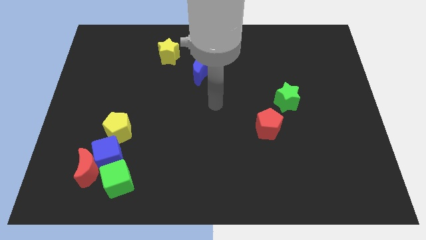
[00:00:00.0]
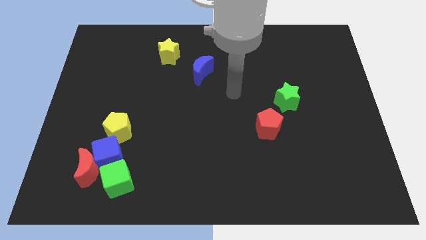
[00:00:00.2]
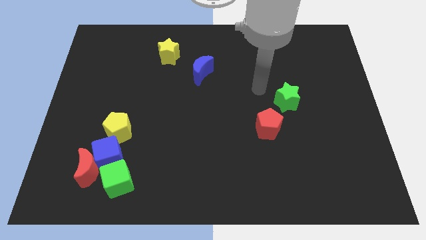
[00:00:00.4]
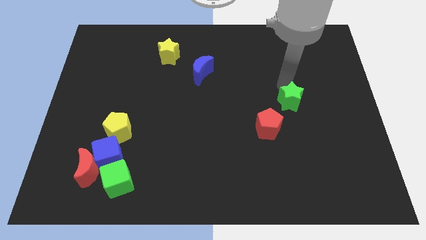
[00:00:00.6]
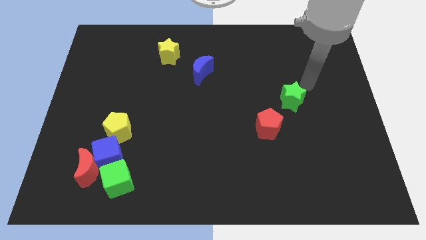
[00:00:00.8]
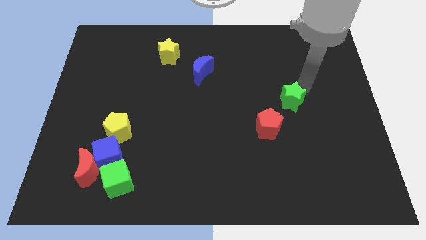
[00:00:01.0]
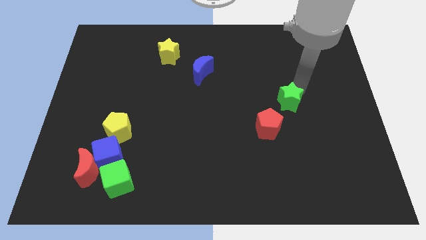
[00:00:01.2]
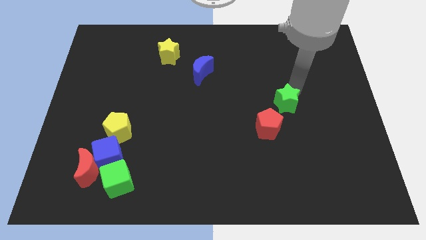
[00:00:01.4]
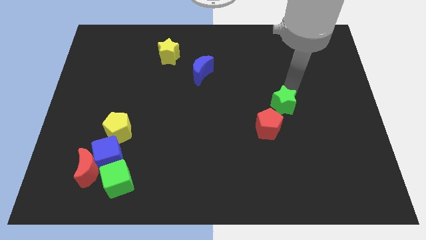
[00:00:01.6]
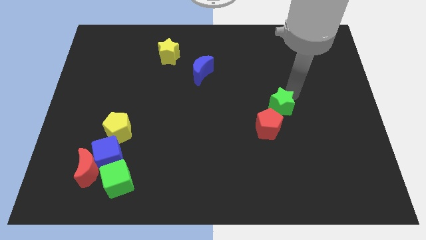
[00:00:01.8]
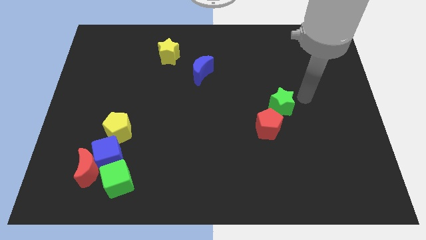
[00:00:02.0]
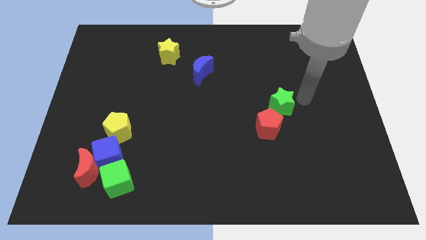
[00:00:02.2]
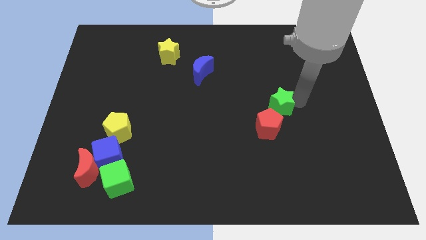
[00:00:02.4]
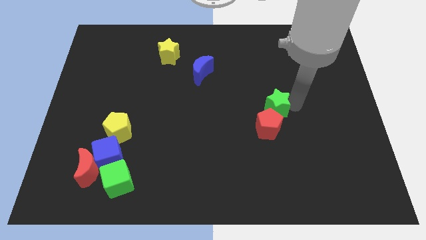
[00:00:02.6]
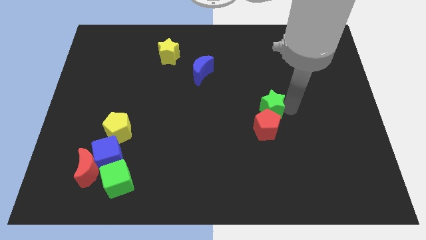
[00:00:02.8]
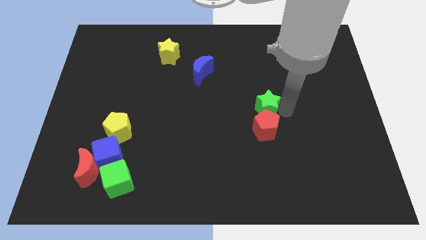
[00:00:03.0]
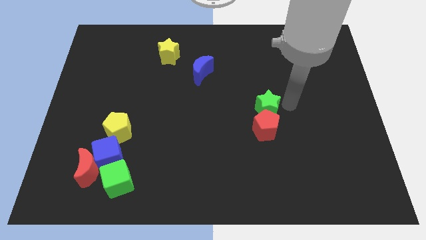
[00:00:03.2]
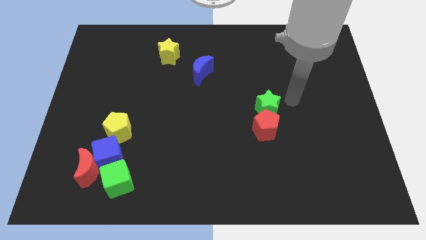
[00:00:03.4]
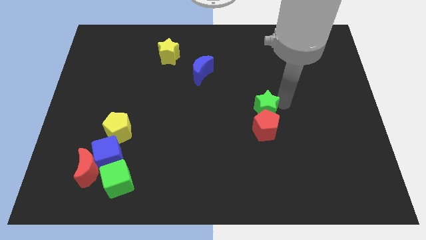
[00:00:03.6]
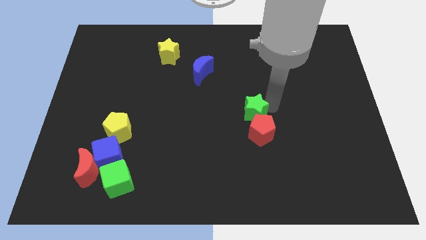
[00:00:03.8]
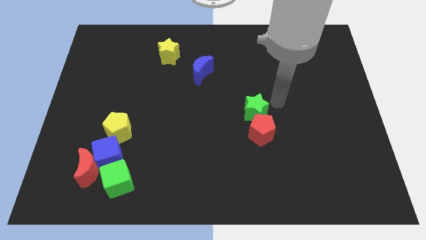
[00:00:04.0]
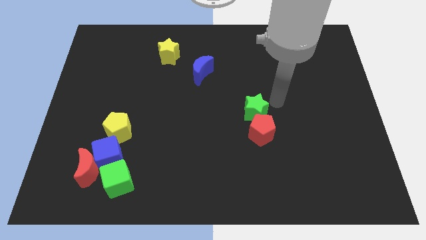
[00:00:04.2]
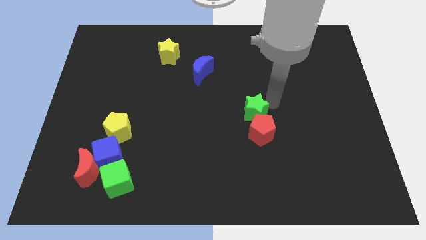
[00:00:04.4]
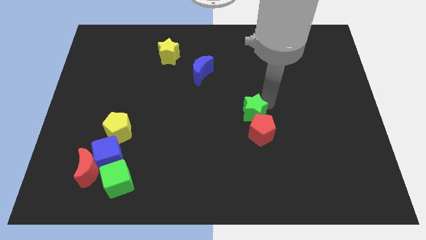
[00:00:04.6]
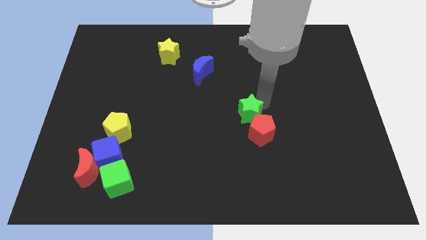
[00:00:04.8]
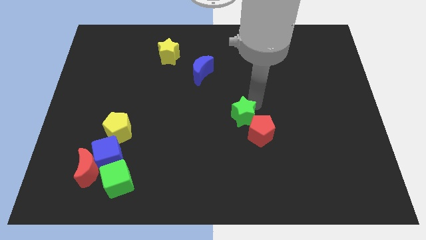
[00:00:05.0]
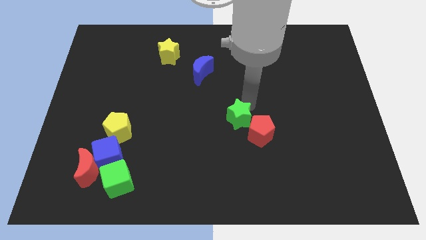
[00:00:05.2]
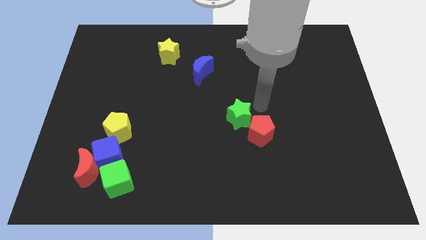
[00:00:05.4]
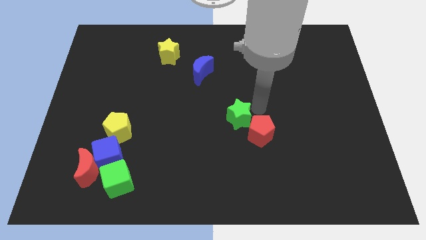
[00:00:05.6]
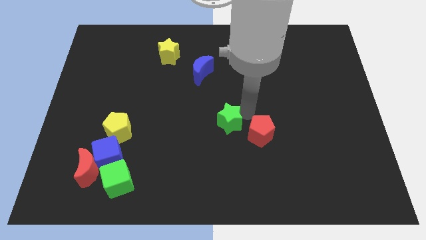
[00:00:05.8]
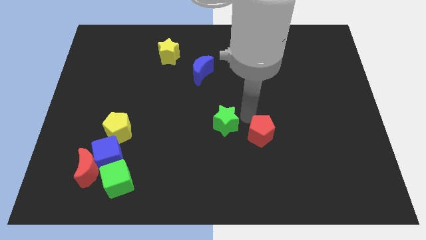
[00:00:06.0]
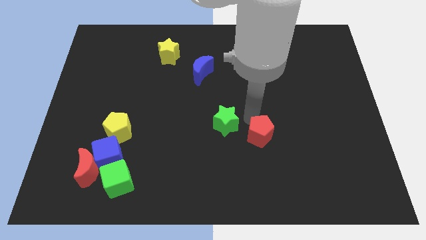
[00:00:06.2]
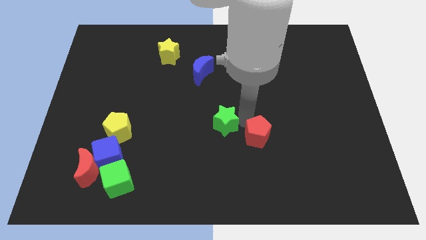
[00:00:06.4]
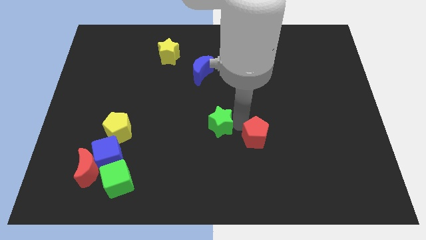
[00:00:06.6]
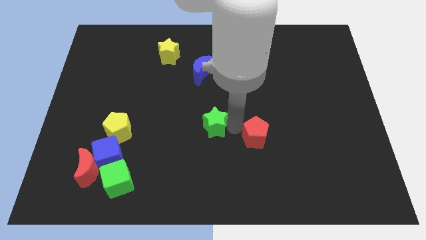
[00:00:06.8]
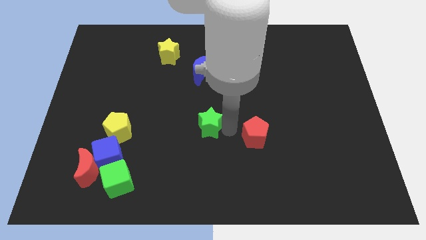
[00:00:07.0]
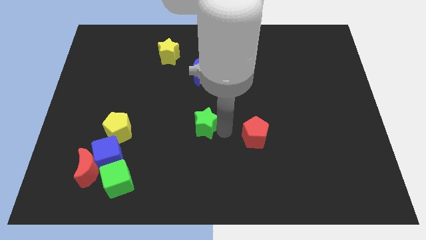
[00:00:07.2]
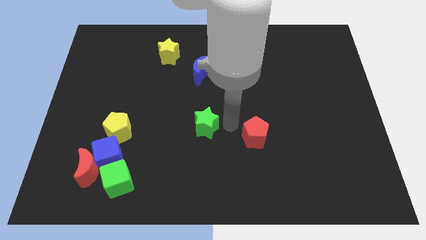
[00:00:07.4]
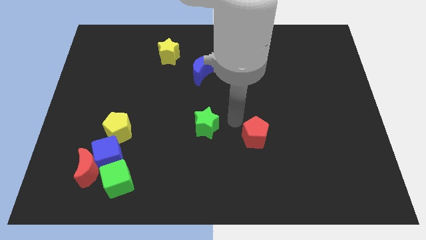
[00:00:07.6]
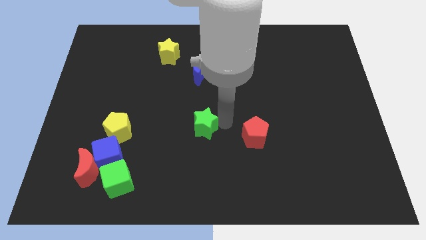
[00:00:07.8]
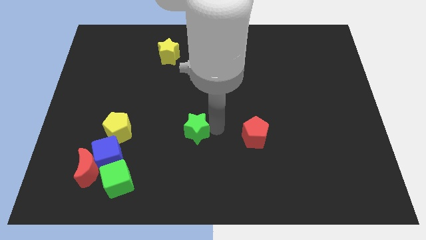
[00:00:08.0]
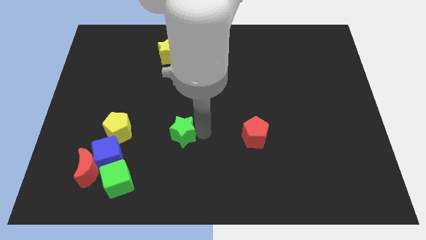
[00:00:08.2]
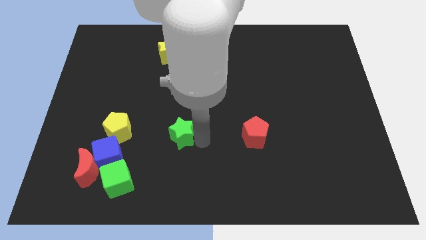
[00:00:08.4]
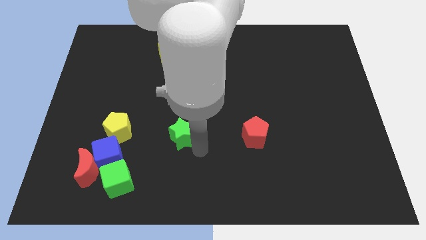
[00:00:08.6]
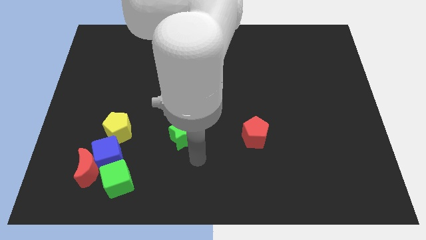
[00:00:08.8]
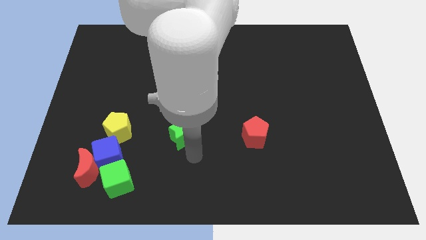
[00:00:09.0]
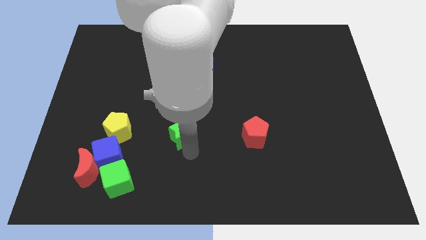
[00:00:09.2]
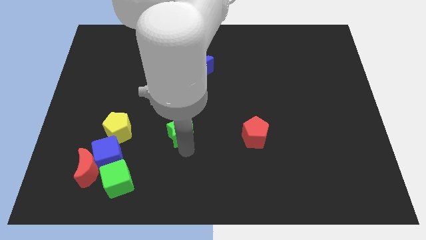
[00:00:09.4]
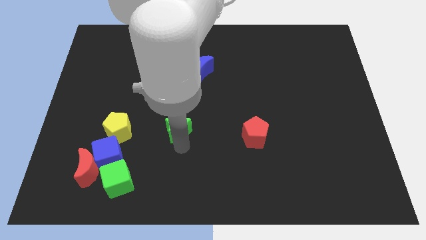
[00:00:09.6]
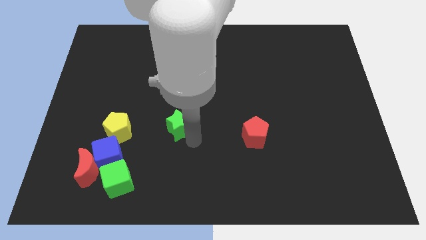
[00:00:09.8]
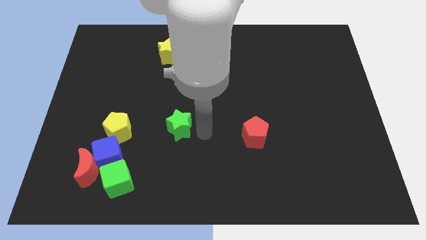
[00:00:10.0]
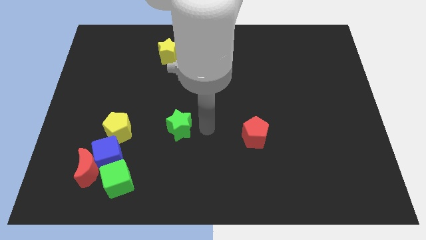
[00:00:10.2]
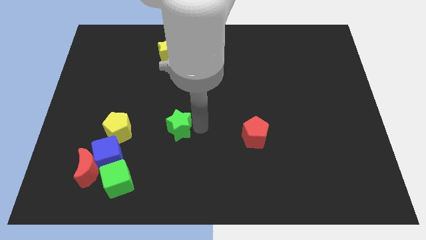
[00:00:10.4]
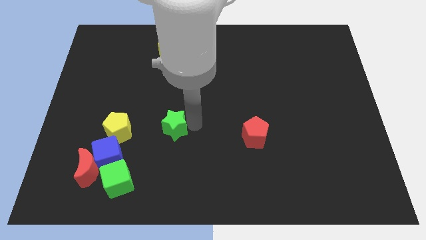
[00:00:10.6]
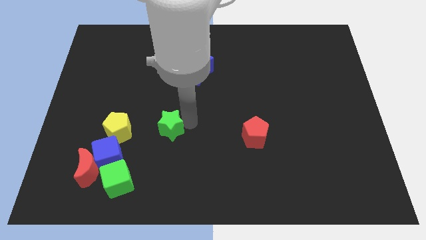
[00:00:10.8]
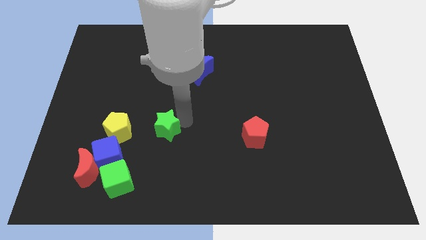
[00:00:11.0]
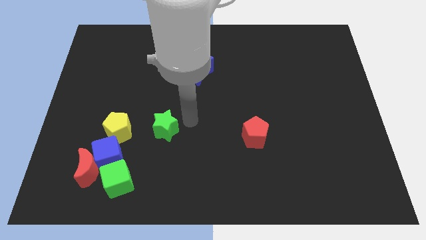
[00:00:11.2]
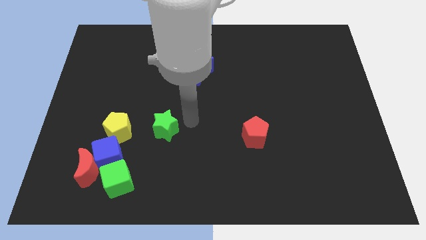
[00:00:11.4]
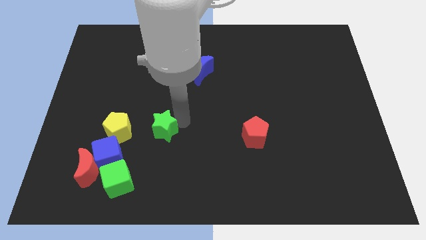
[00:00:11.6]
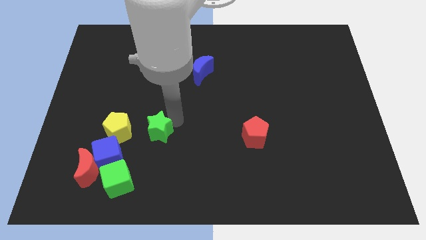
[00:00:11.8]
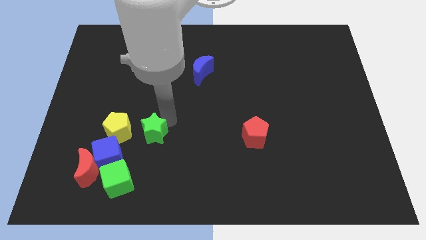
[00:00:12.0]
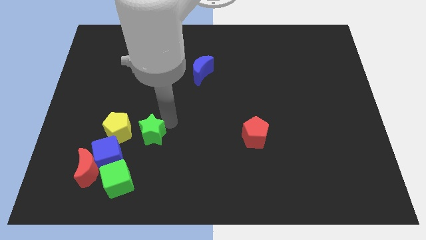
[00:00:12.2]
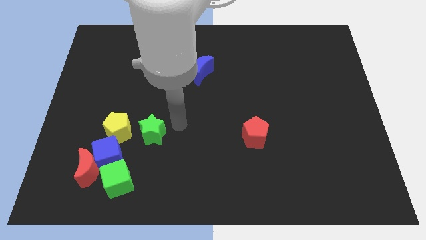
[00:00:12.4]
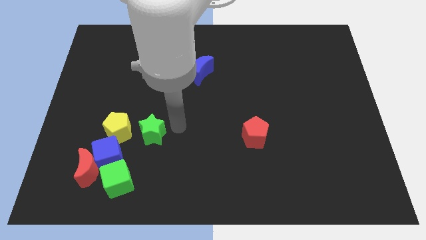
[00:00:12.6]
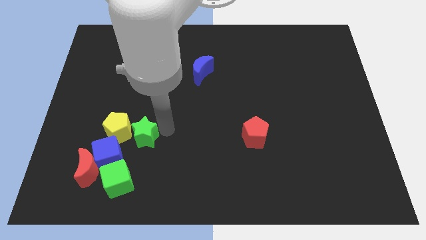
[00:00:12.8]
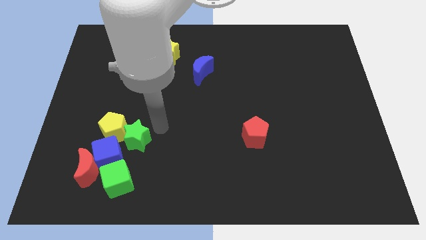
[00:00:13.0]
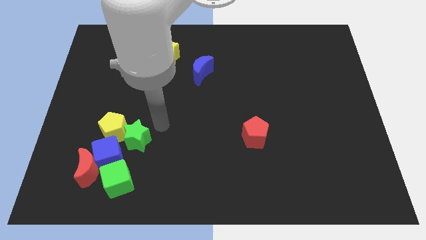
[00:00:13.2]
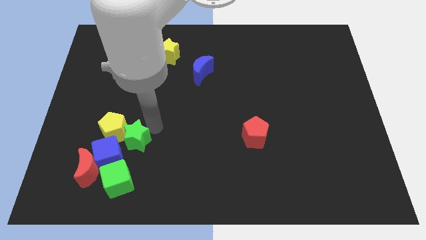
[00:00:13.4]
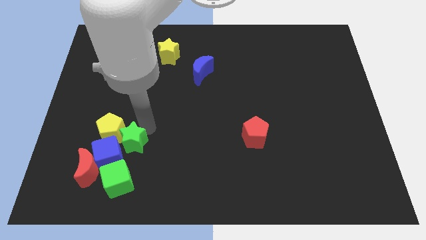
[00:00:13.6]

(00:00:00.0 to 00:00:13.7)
move the green star to the blue cube

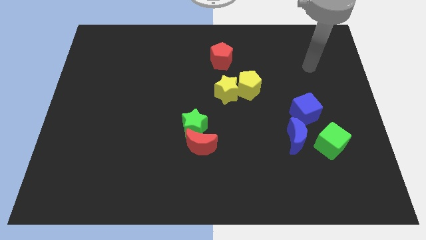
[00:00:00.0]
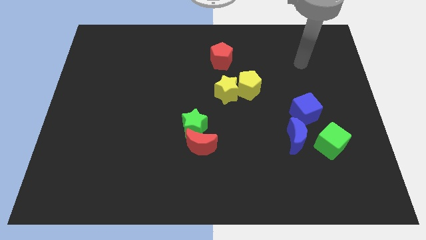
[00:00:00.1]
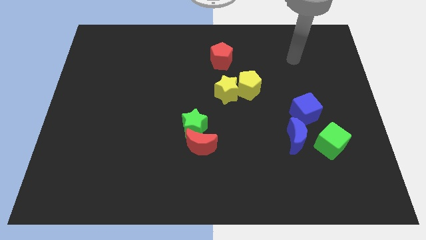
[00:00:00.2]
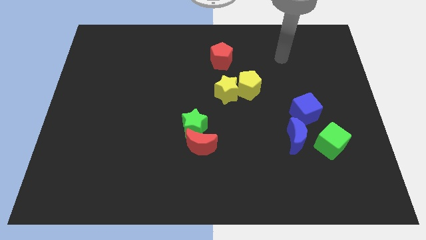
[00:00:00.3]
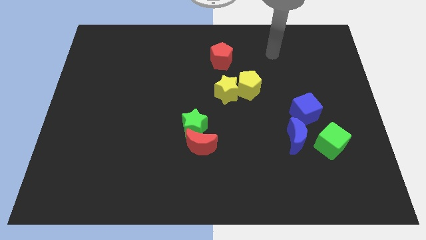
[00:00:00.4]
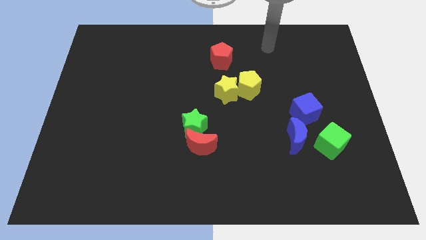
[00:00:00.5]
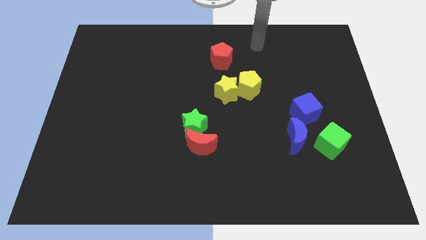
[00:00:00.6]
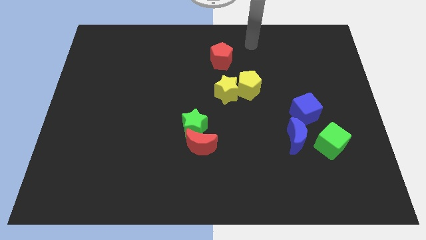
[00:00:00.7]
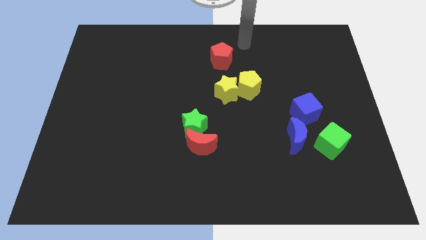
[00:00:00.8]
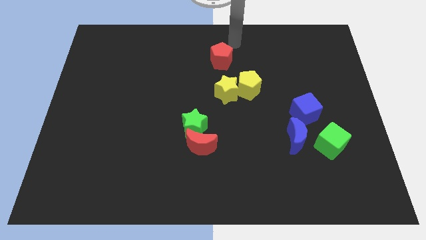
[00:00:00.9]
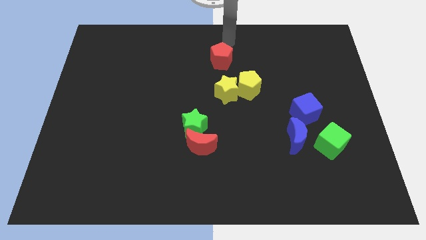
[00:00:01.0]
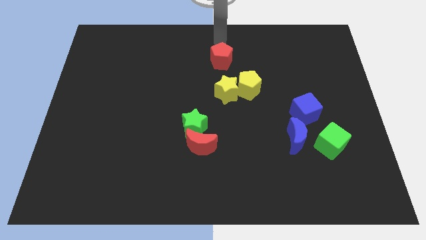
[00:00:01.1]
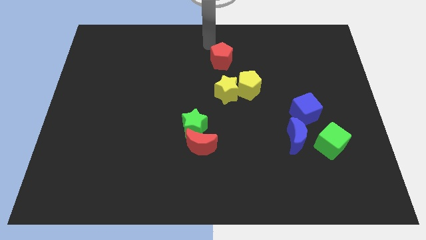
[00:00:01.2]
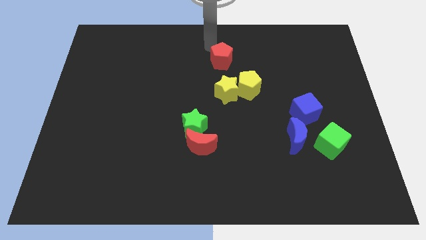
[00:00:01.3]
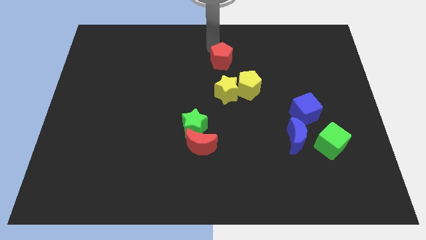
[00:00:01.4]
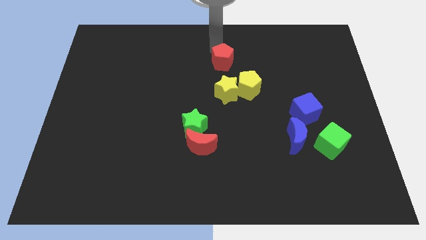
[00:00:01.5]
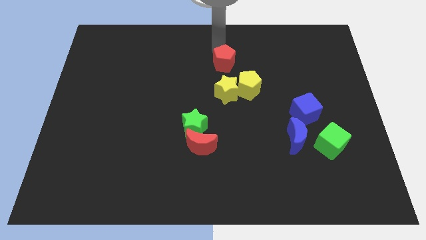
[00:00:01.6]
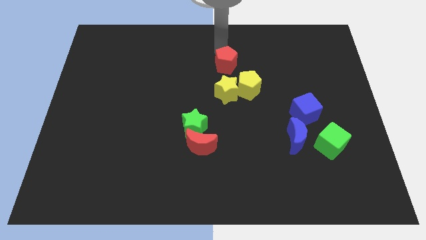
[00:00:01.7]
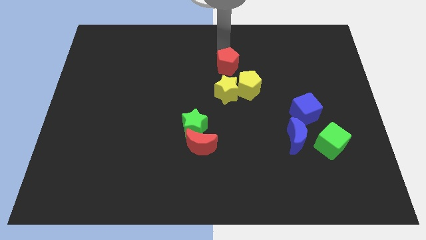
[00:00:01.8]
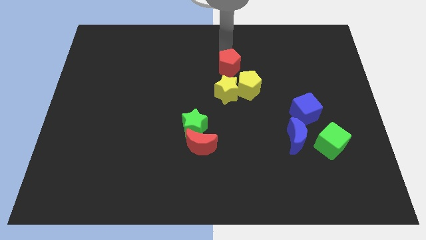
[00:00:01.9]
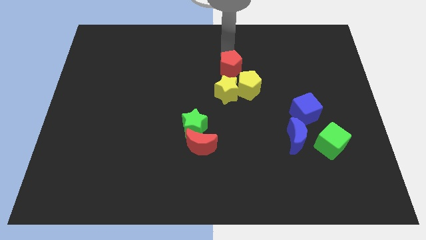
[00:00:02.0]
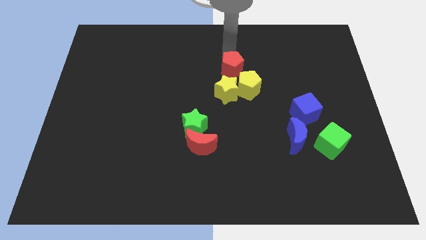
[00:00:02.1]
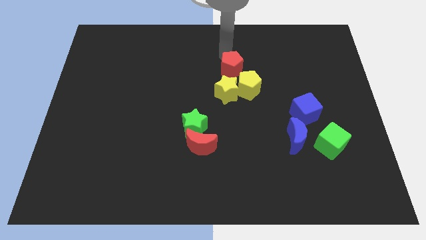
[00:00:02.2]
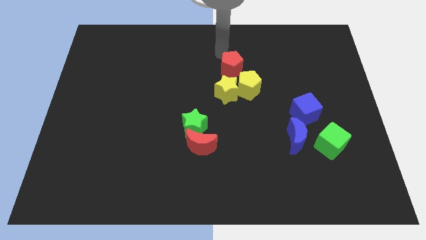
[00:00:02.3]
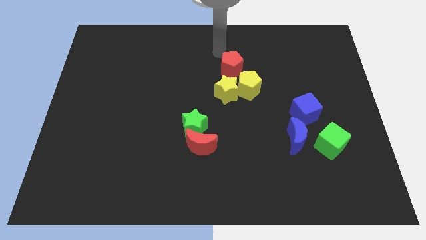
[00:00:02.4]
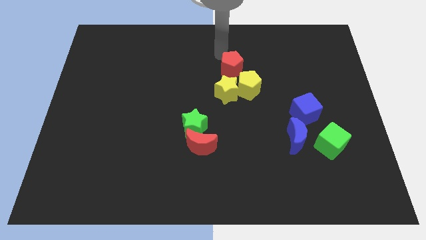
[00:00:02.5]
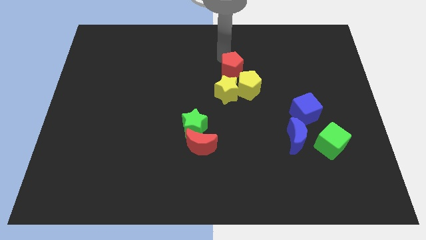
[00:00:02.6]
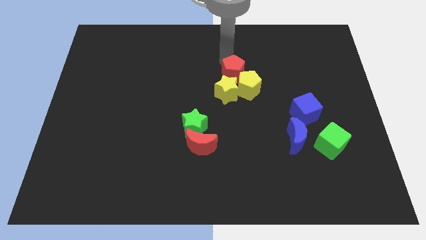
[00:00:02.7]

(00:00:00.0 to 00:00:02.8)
put the red pentagon close to the yellow pentagon
